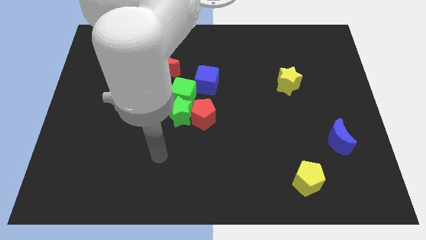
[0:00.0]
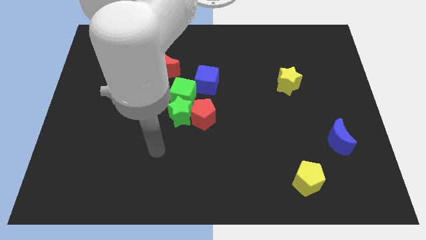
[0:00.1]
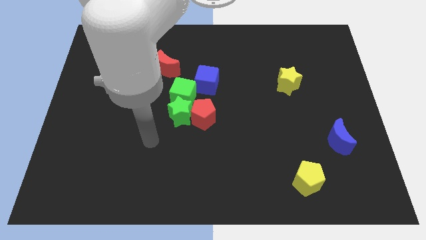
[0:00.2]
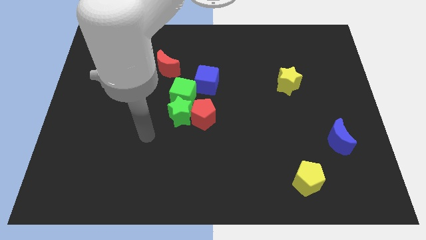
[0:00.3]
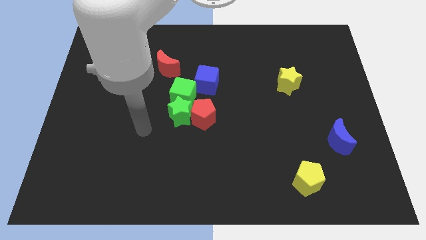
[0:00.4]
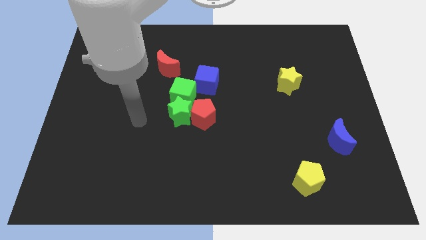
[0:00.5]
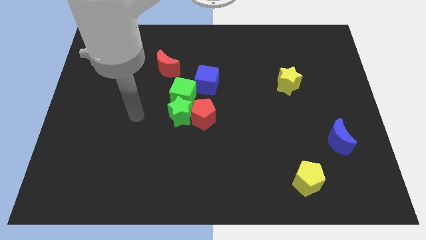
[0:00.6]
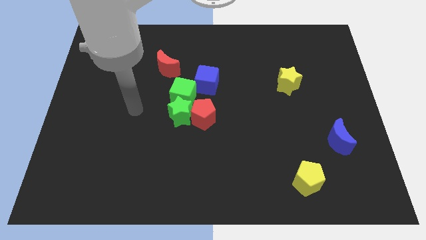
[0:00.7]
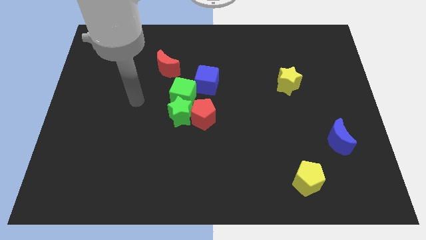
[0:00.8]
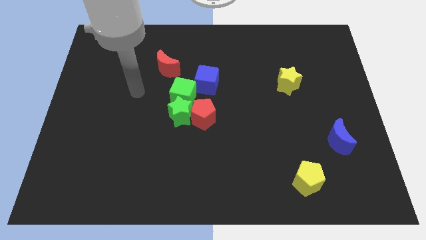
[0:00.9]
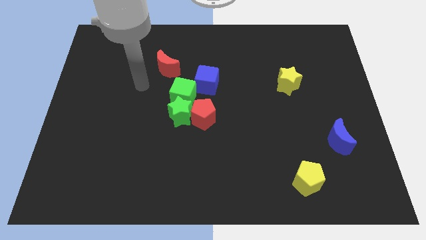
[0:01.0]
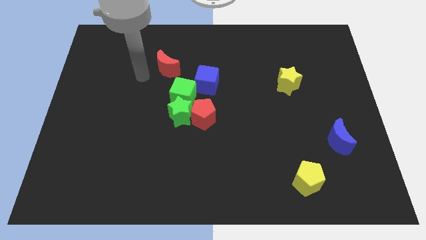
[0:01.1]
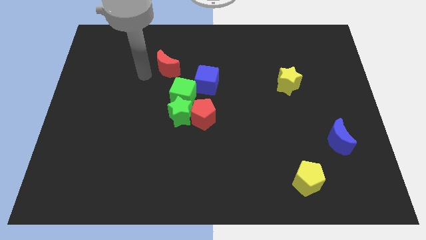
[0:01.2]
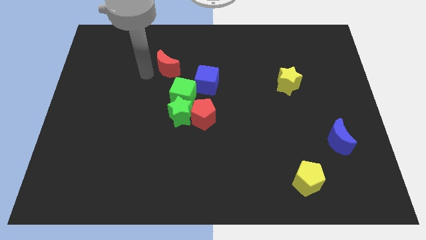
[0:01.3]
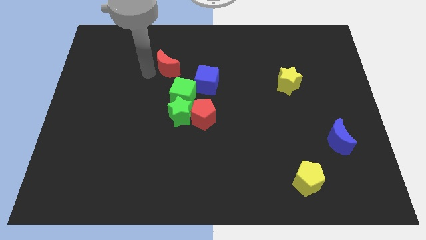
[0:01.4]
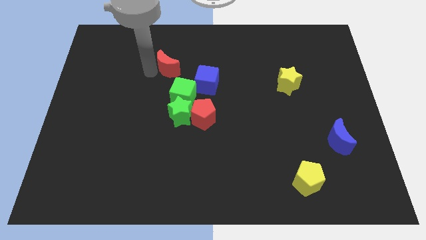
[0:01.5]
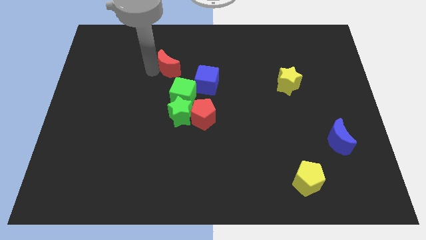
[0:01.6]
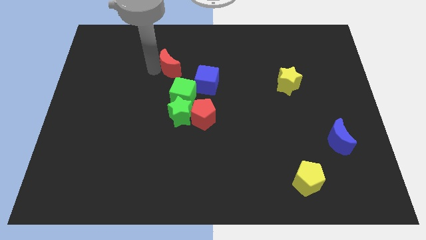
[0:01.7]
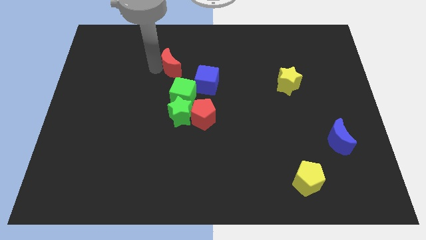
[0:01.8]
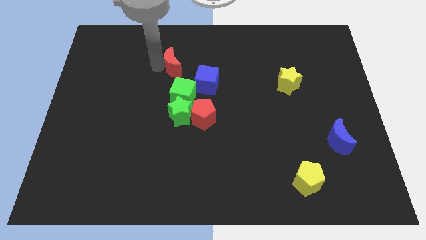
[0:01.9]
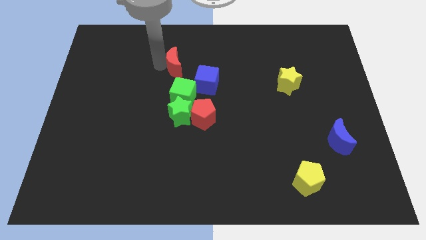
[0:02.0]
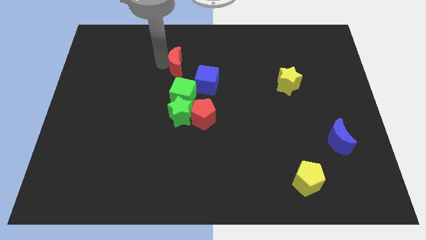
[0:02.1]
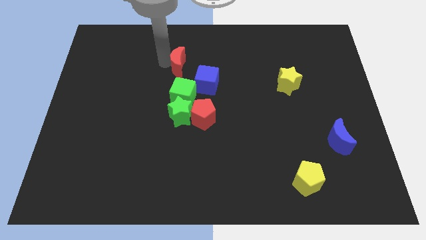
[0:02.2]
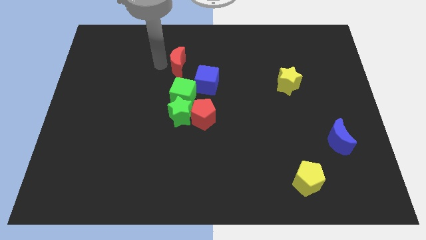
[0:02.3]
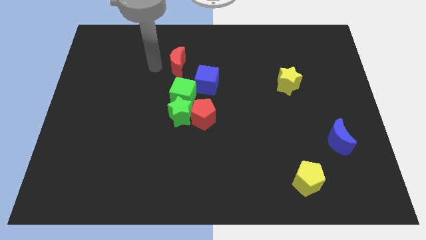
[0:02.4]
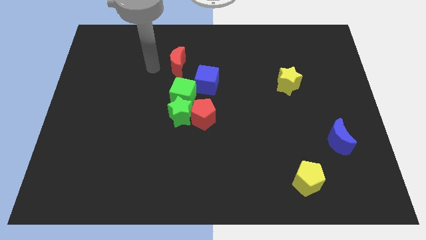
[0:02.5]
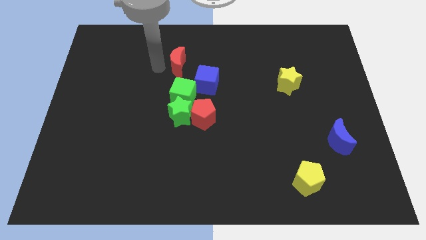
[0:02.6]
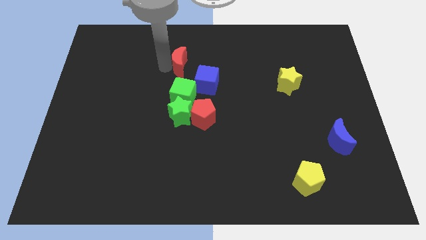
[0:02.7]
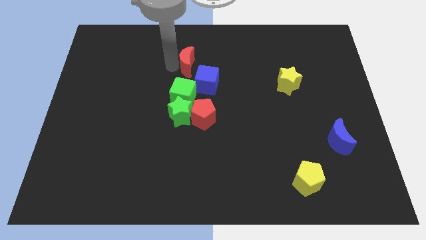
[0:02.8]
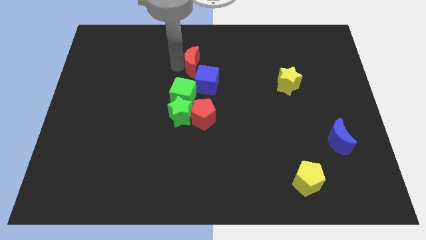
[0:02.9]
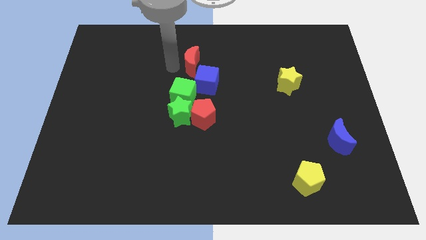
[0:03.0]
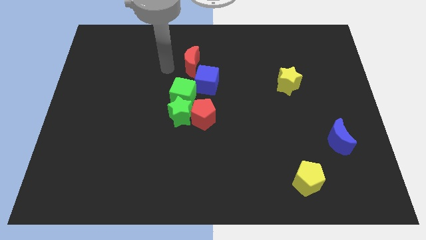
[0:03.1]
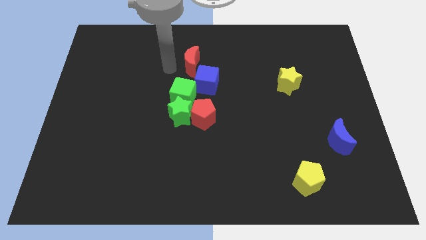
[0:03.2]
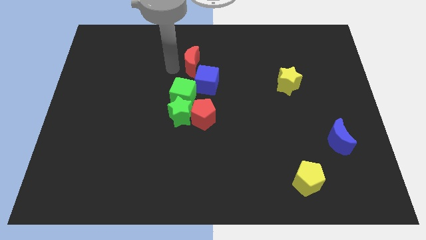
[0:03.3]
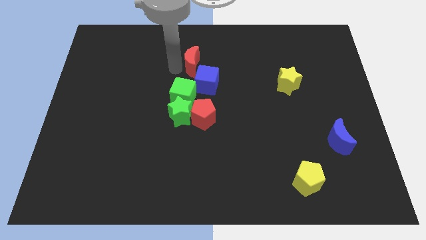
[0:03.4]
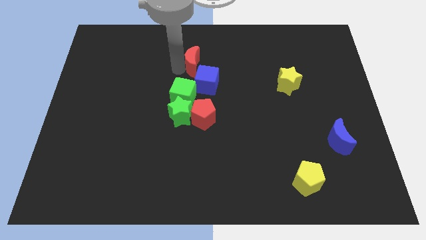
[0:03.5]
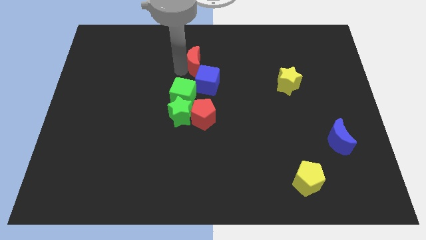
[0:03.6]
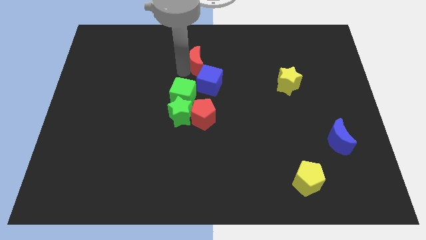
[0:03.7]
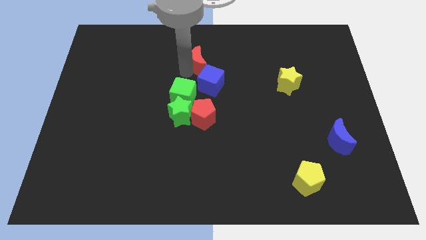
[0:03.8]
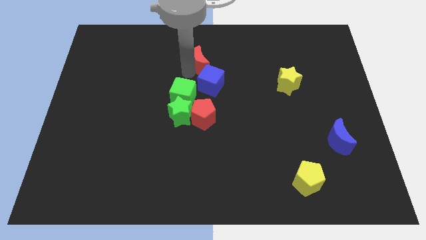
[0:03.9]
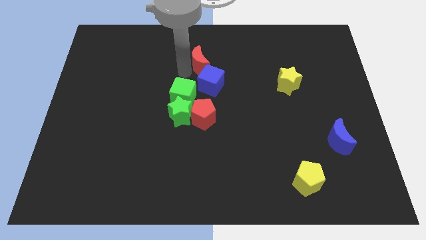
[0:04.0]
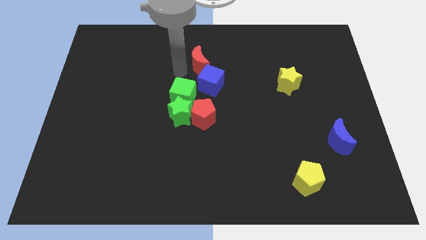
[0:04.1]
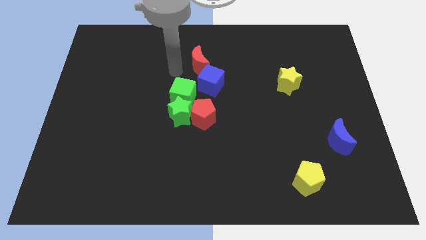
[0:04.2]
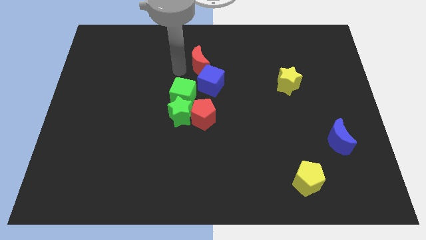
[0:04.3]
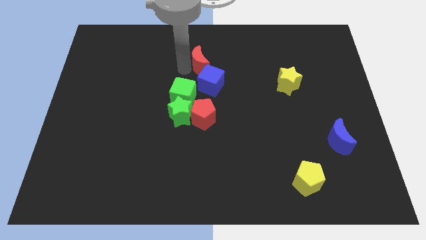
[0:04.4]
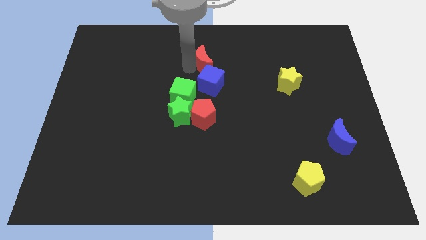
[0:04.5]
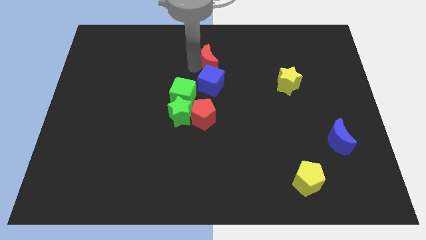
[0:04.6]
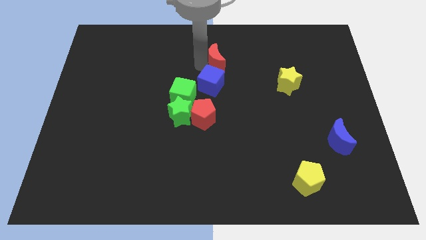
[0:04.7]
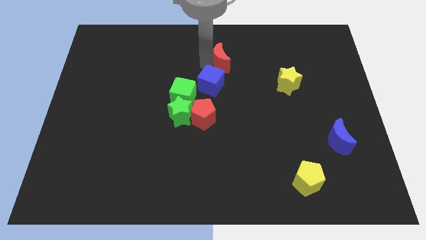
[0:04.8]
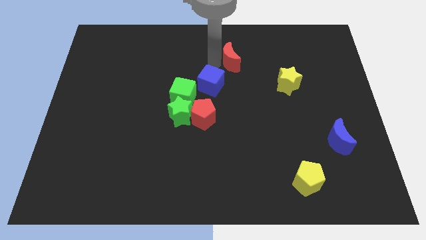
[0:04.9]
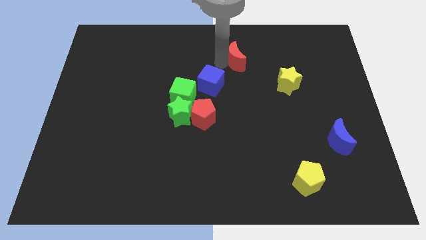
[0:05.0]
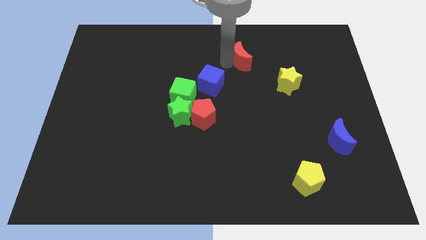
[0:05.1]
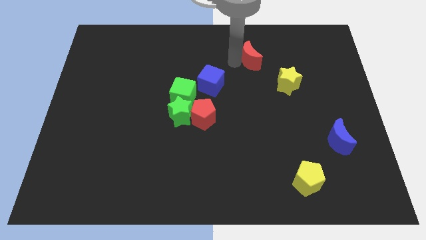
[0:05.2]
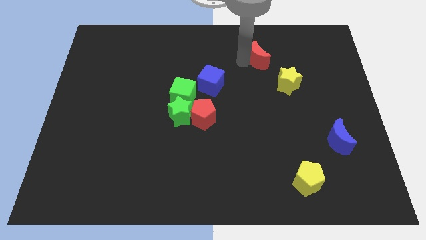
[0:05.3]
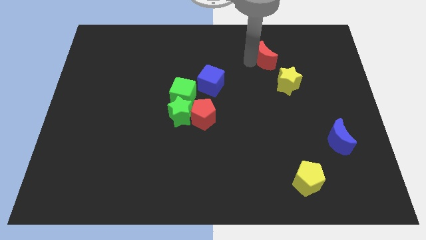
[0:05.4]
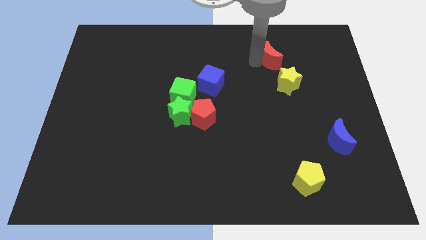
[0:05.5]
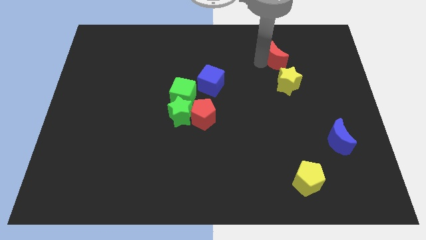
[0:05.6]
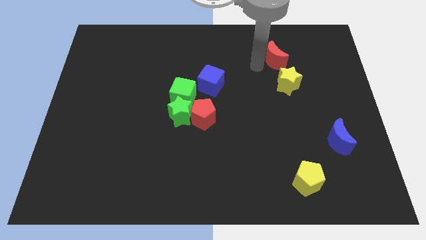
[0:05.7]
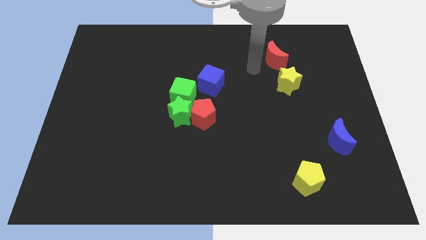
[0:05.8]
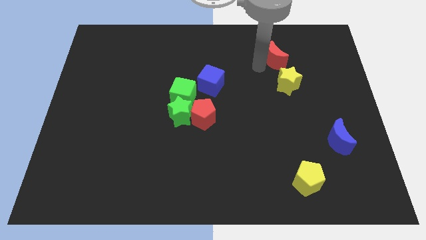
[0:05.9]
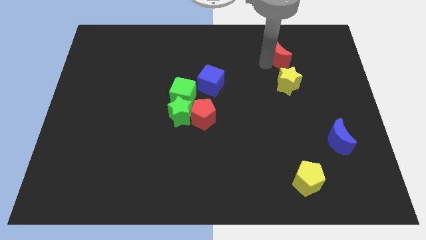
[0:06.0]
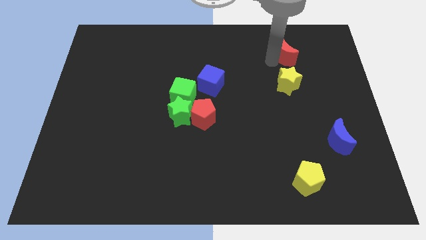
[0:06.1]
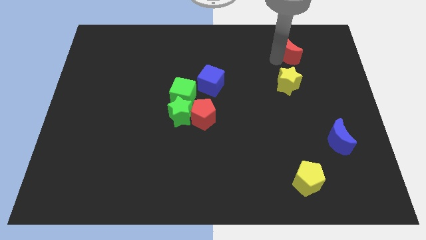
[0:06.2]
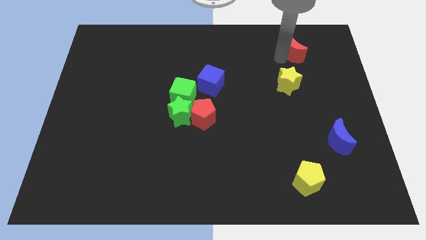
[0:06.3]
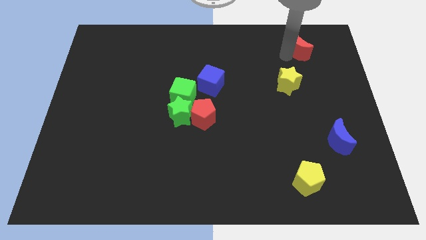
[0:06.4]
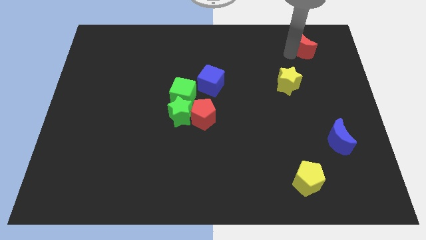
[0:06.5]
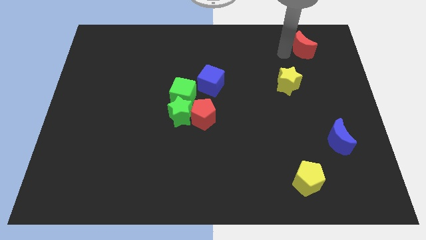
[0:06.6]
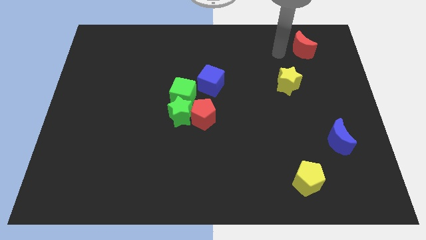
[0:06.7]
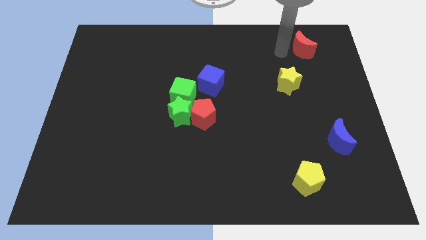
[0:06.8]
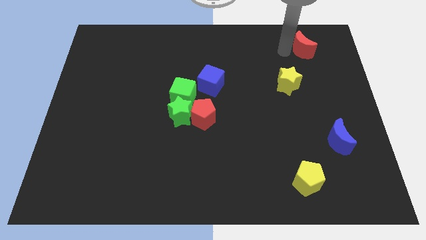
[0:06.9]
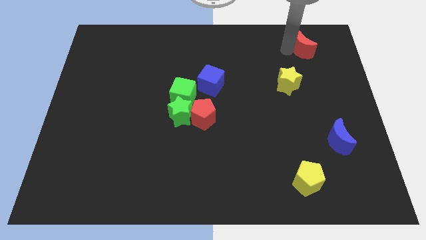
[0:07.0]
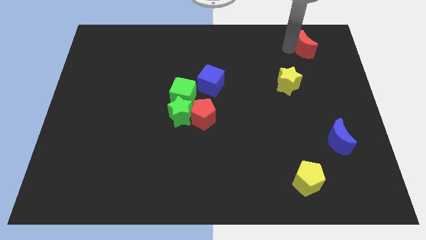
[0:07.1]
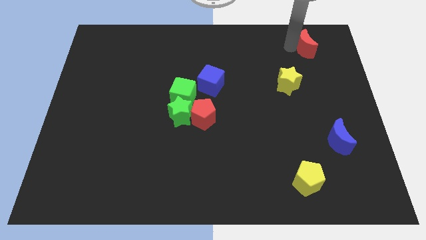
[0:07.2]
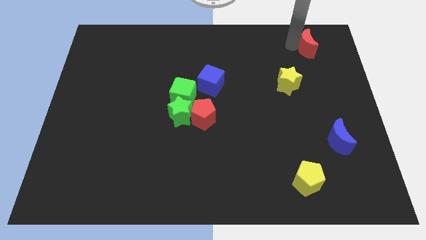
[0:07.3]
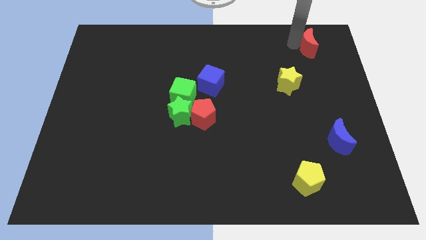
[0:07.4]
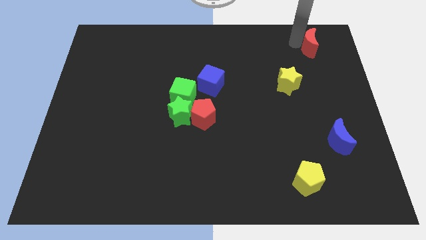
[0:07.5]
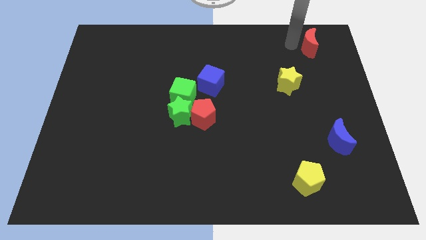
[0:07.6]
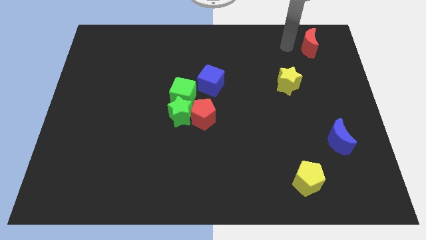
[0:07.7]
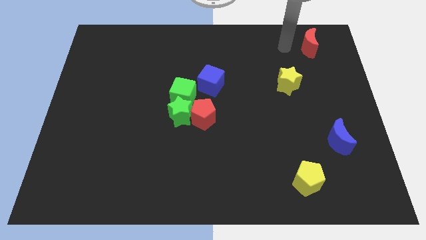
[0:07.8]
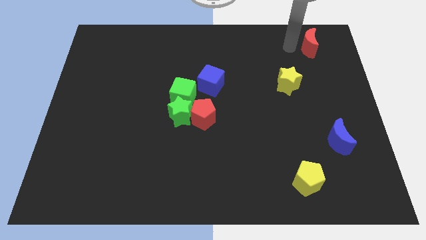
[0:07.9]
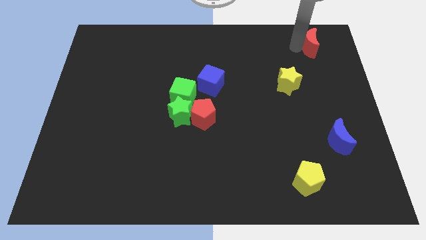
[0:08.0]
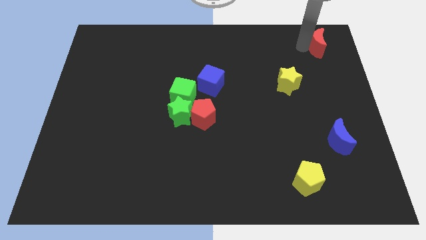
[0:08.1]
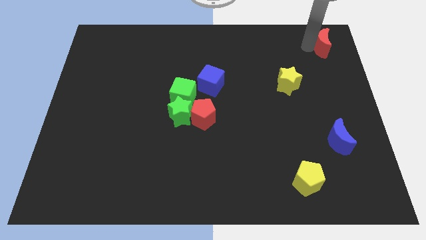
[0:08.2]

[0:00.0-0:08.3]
push the red moon to the top right of the board
